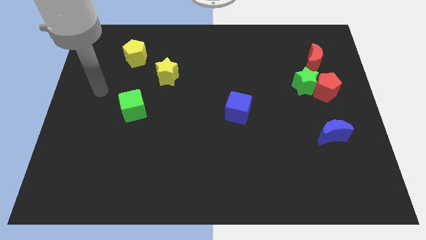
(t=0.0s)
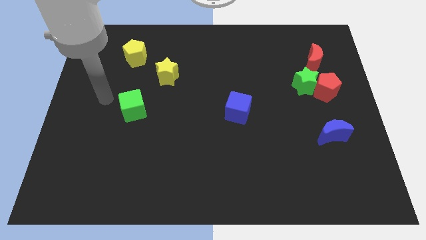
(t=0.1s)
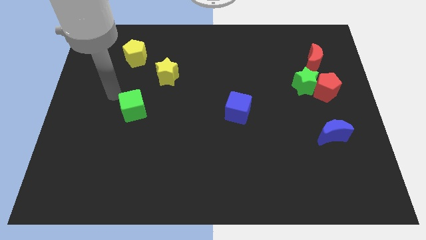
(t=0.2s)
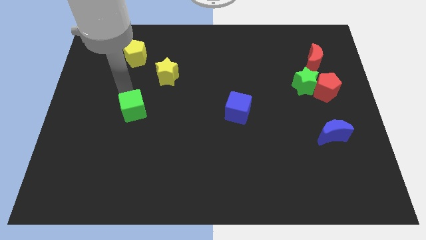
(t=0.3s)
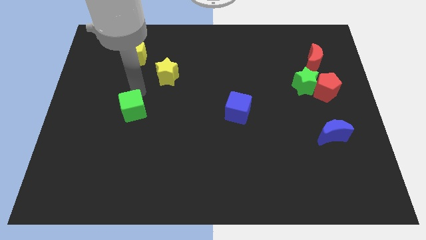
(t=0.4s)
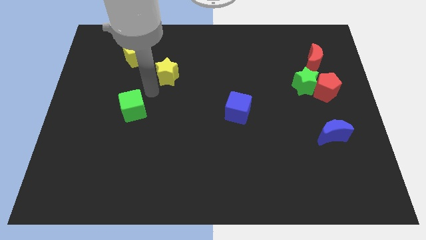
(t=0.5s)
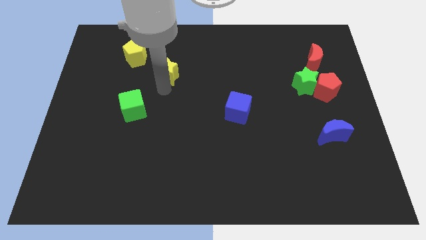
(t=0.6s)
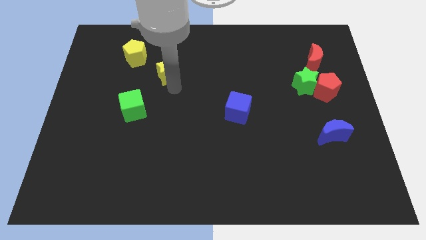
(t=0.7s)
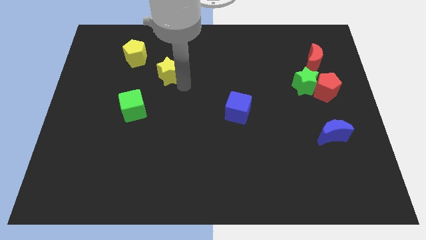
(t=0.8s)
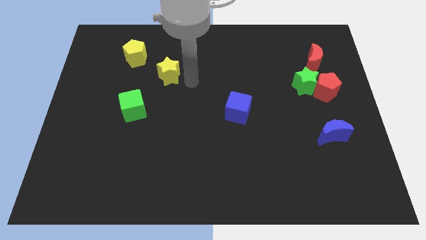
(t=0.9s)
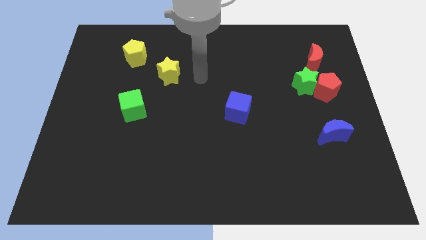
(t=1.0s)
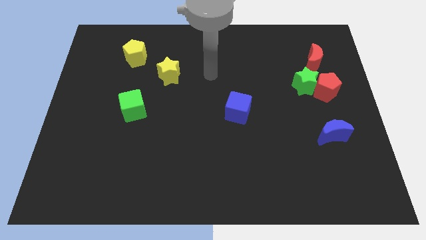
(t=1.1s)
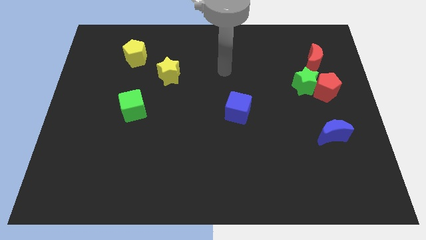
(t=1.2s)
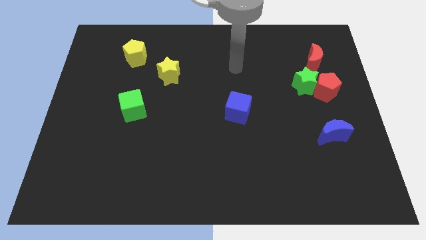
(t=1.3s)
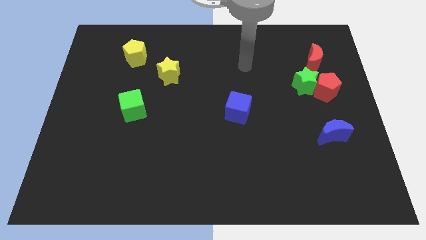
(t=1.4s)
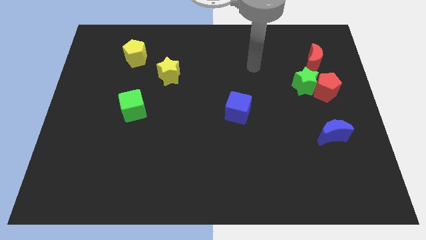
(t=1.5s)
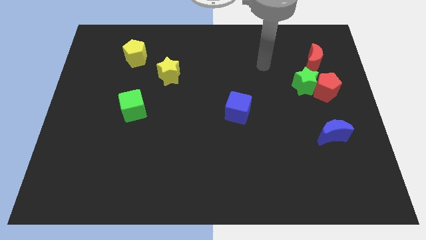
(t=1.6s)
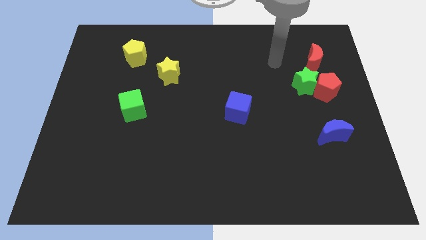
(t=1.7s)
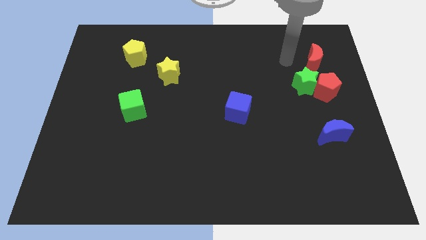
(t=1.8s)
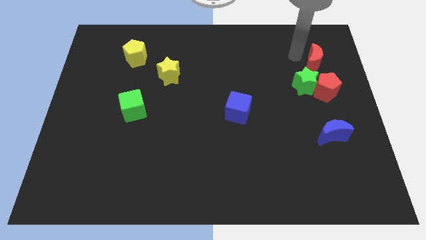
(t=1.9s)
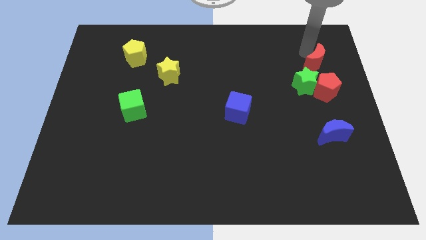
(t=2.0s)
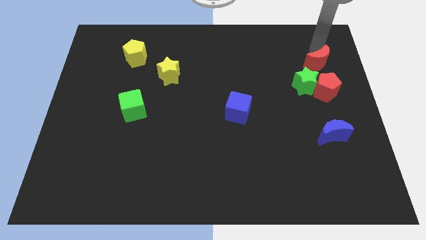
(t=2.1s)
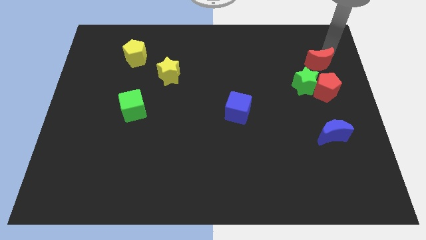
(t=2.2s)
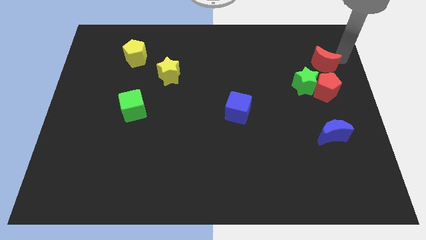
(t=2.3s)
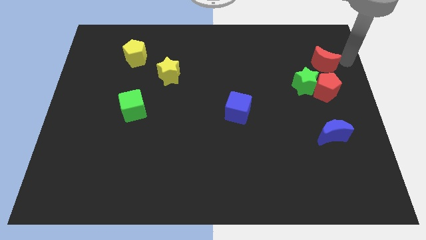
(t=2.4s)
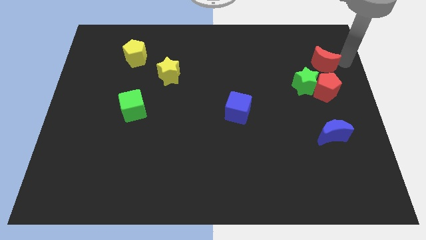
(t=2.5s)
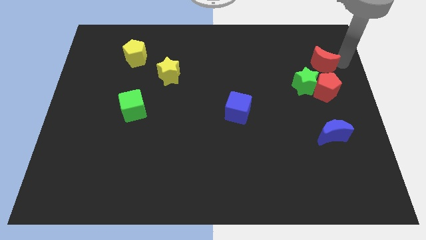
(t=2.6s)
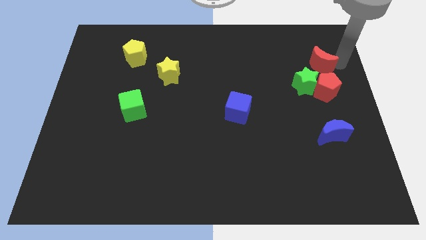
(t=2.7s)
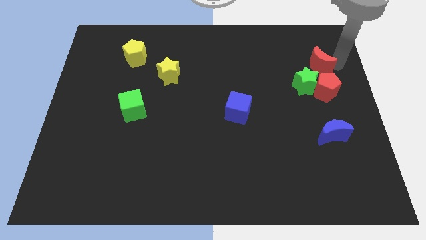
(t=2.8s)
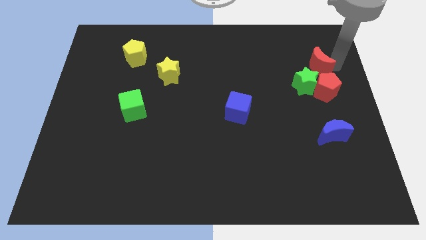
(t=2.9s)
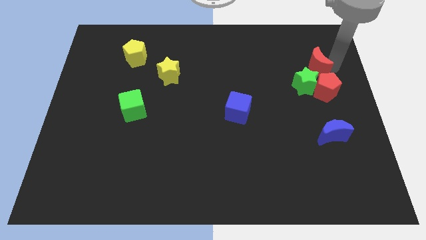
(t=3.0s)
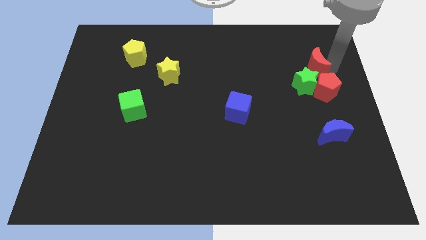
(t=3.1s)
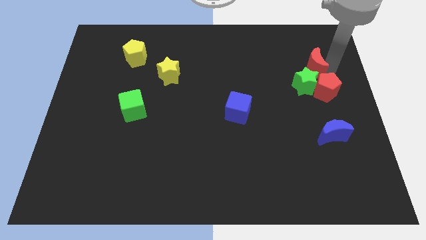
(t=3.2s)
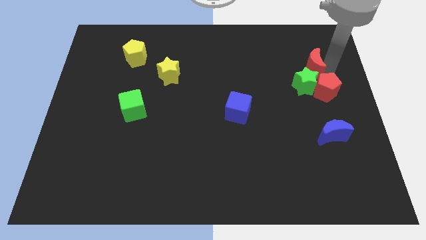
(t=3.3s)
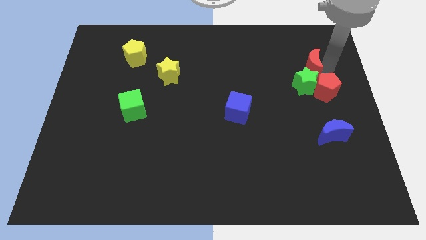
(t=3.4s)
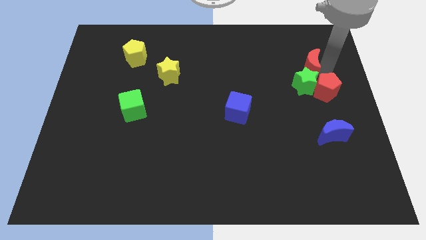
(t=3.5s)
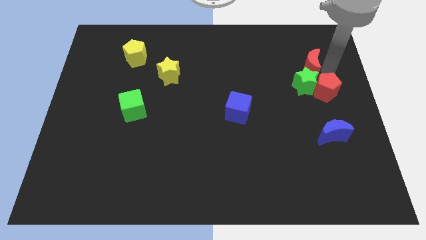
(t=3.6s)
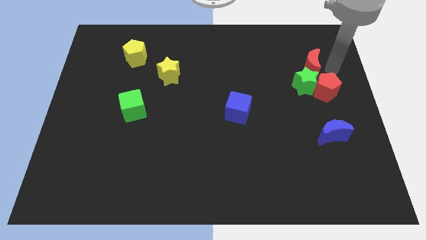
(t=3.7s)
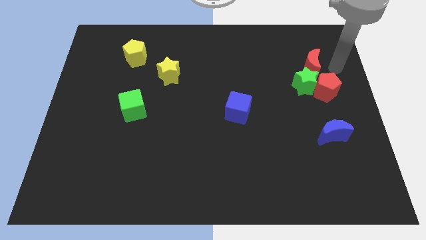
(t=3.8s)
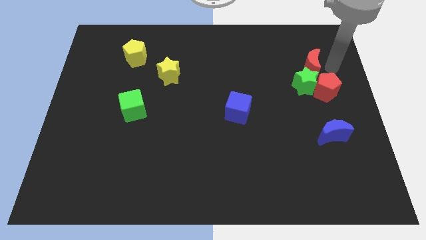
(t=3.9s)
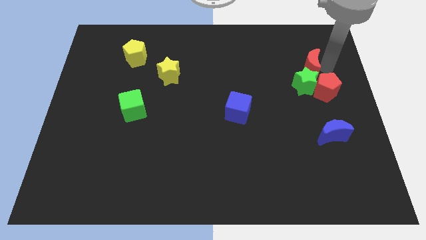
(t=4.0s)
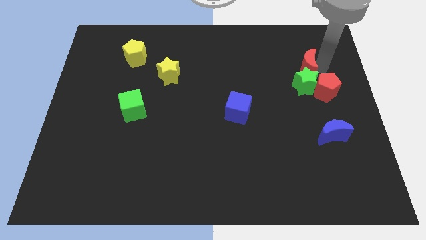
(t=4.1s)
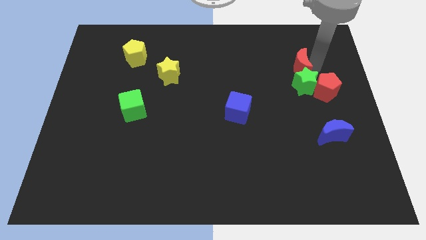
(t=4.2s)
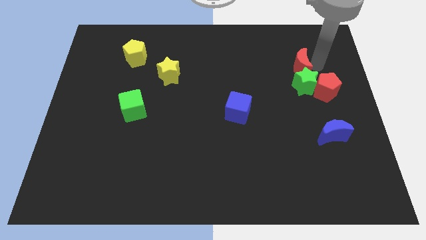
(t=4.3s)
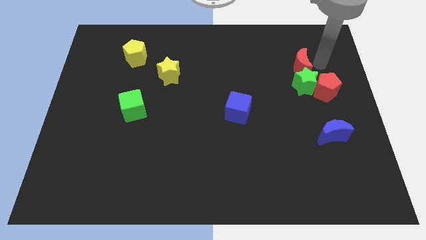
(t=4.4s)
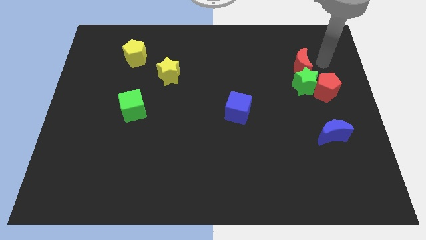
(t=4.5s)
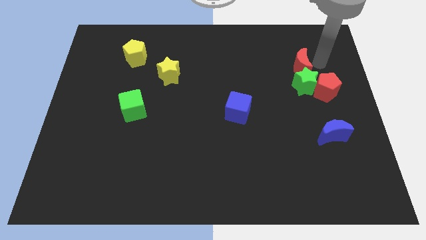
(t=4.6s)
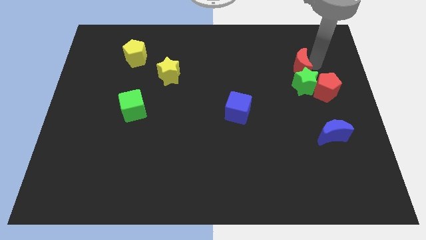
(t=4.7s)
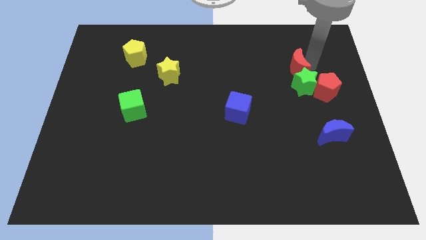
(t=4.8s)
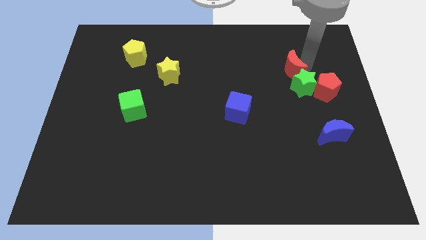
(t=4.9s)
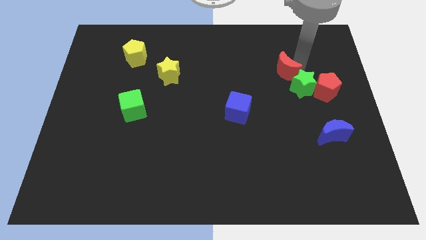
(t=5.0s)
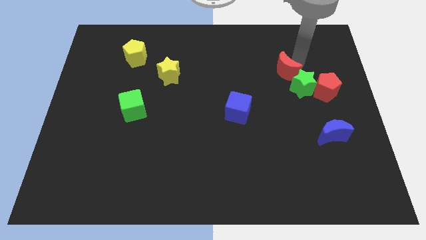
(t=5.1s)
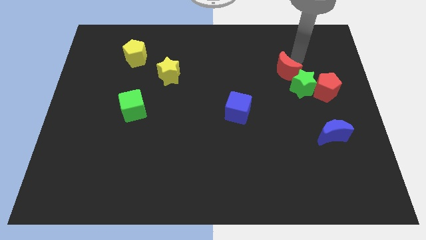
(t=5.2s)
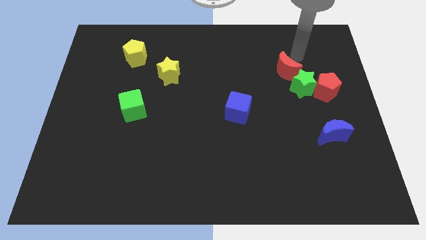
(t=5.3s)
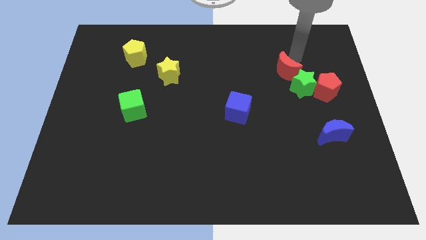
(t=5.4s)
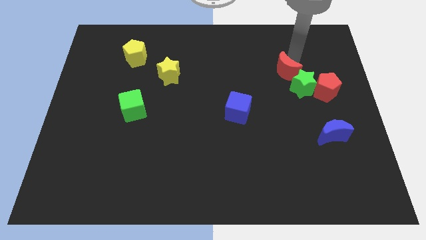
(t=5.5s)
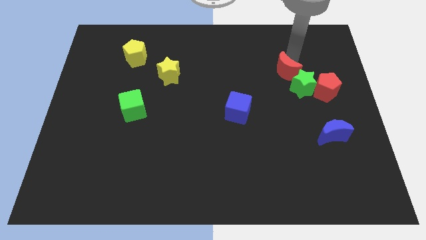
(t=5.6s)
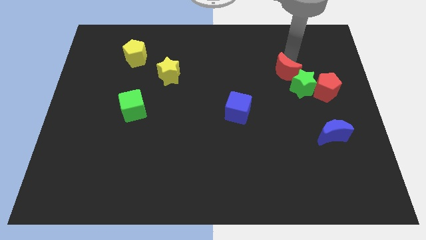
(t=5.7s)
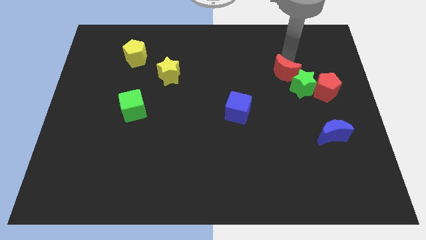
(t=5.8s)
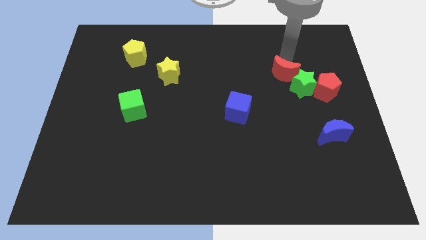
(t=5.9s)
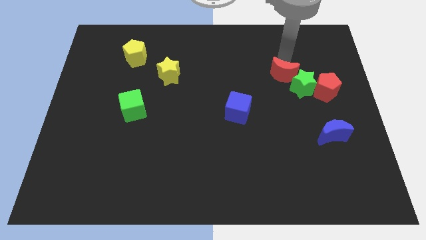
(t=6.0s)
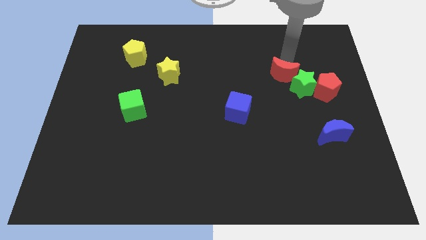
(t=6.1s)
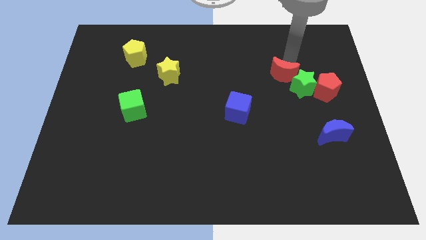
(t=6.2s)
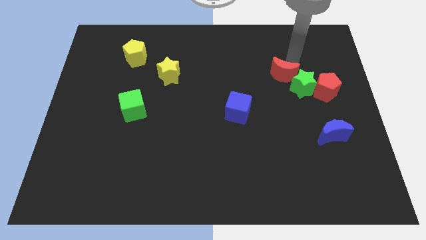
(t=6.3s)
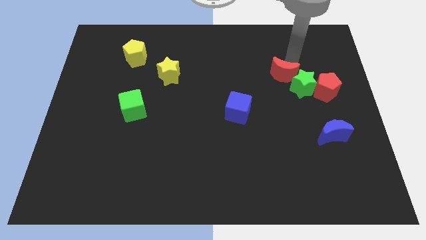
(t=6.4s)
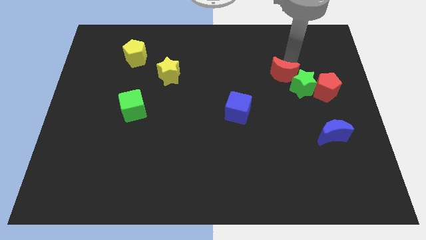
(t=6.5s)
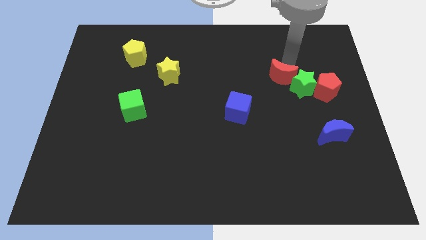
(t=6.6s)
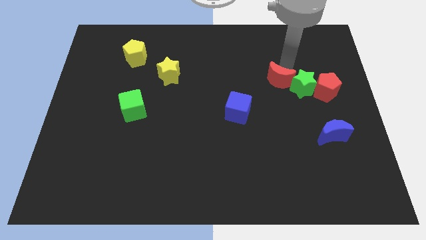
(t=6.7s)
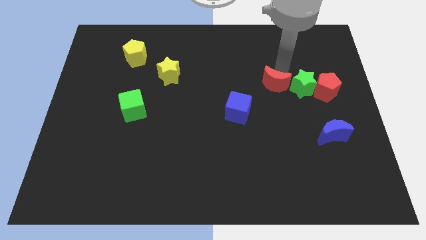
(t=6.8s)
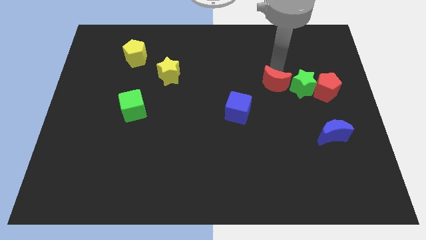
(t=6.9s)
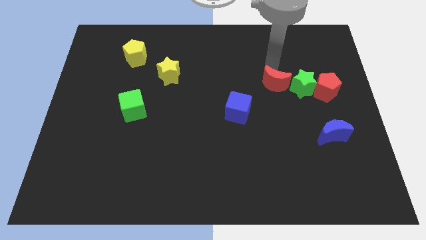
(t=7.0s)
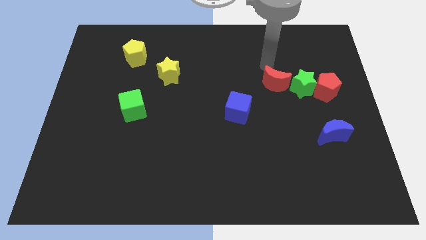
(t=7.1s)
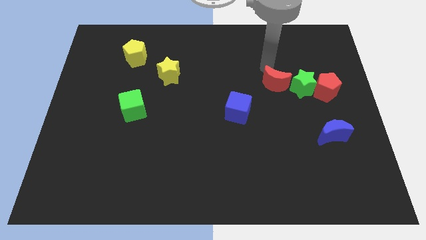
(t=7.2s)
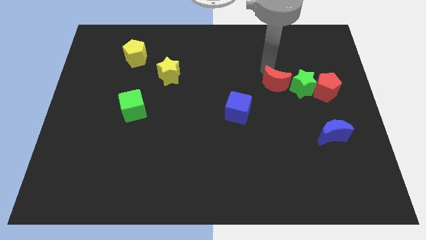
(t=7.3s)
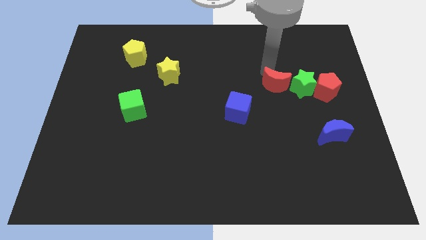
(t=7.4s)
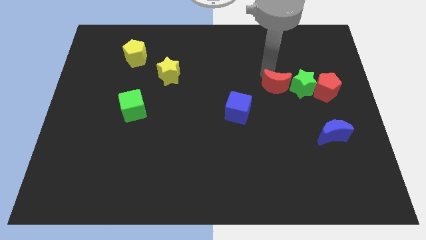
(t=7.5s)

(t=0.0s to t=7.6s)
move the red moon diagonally down and to the left of the green star
